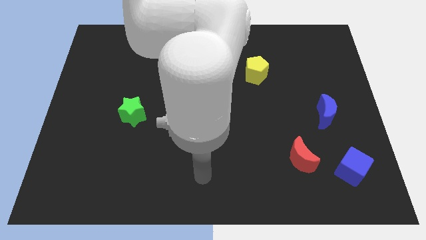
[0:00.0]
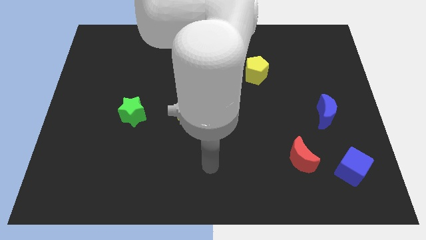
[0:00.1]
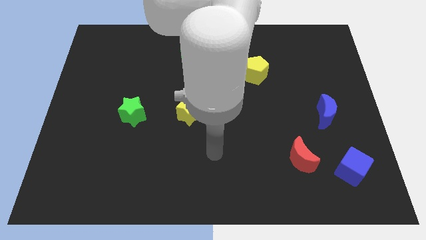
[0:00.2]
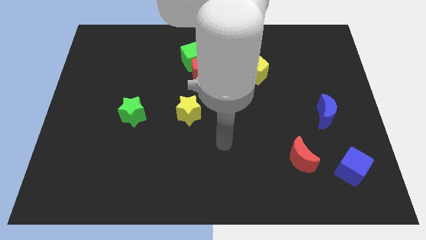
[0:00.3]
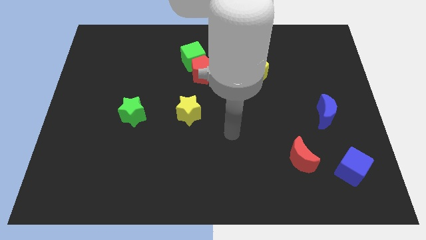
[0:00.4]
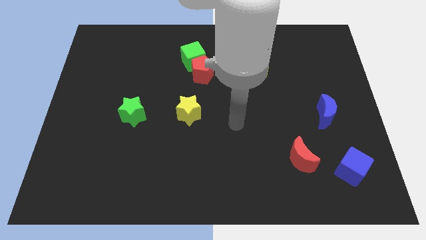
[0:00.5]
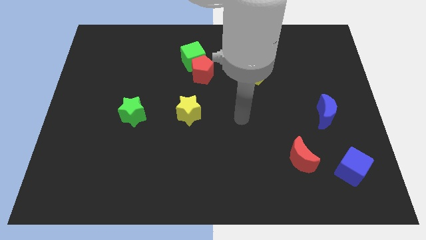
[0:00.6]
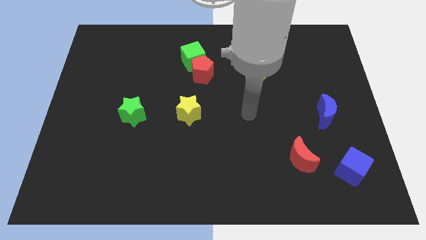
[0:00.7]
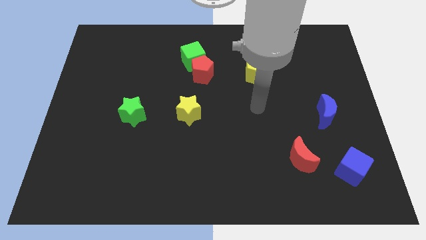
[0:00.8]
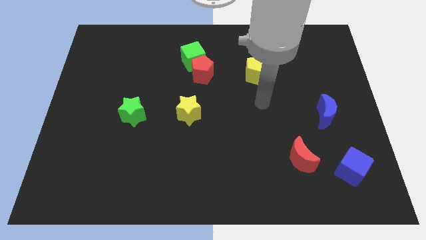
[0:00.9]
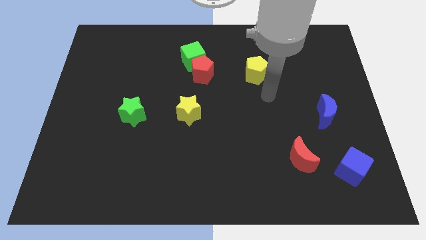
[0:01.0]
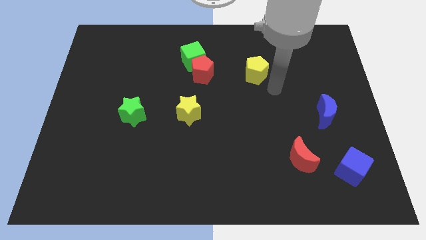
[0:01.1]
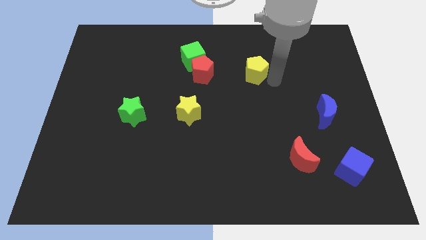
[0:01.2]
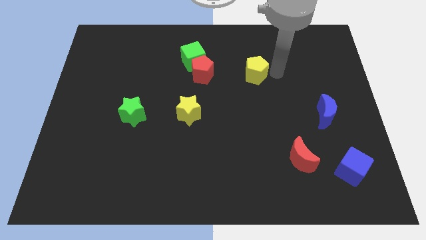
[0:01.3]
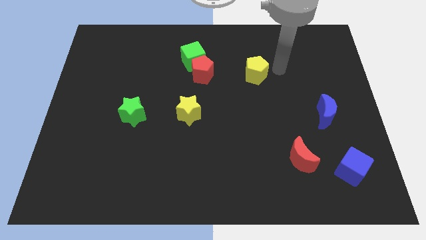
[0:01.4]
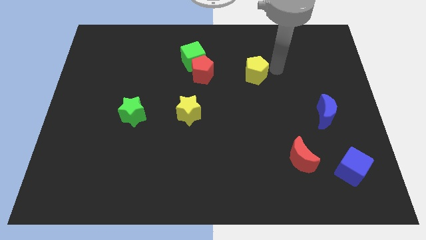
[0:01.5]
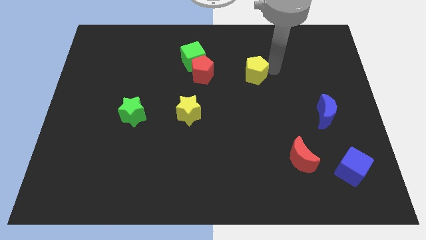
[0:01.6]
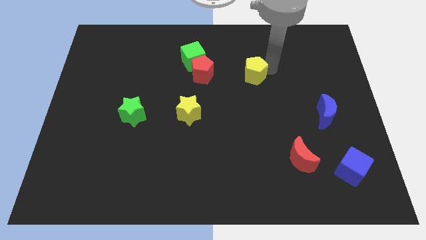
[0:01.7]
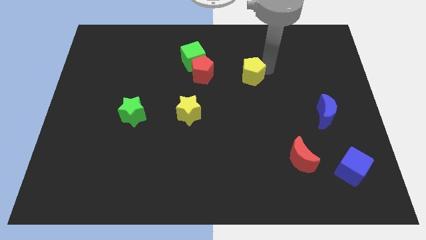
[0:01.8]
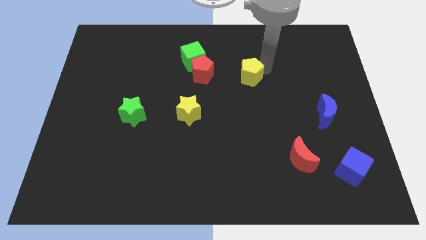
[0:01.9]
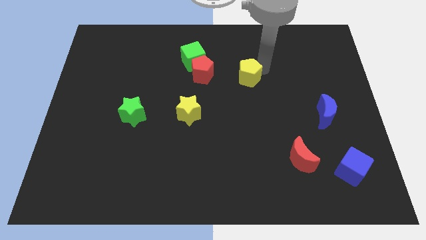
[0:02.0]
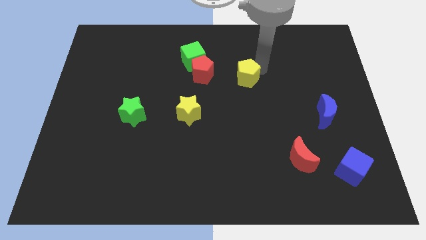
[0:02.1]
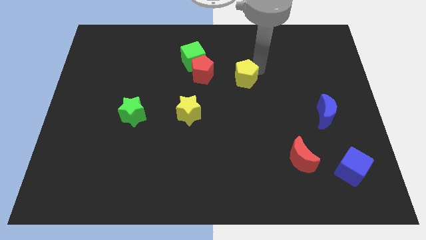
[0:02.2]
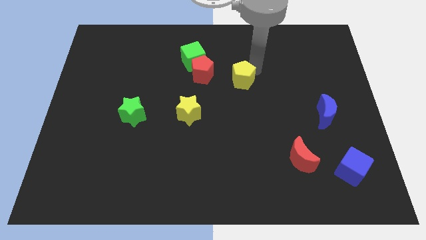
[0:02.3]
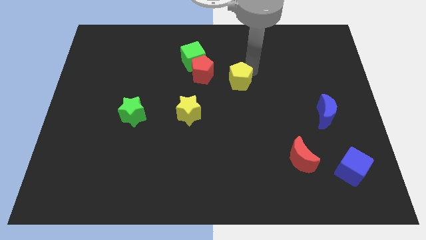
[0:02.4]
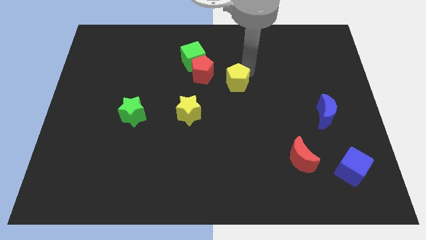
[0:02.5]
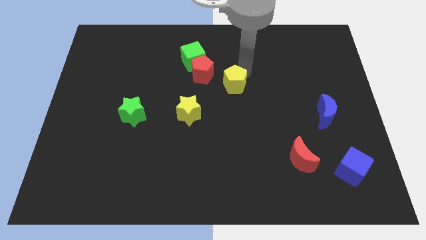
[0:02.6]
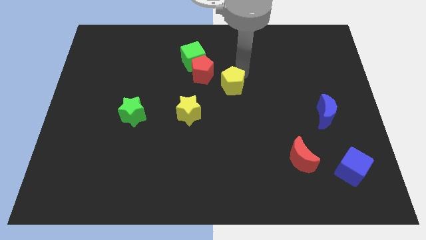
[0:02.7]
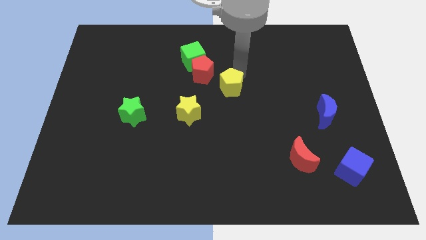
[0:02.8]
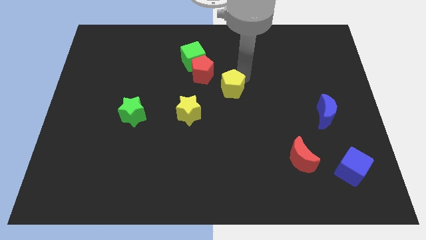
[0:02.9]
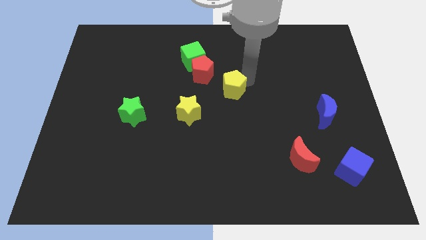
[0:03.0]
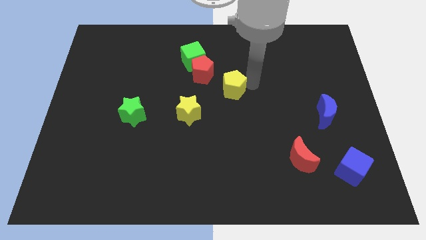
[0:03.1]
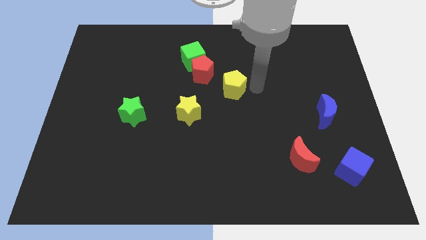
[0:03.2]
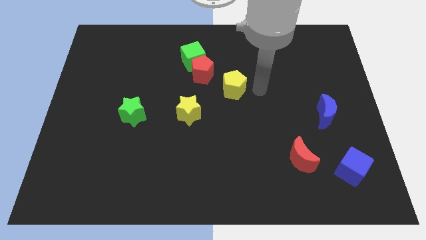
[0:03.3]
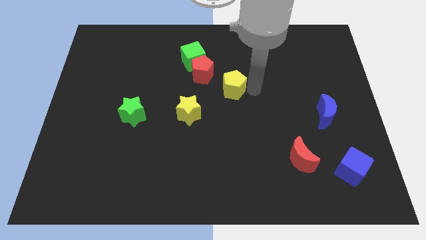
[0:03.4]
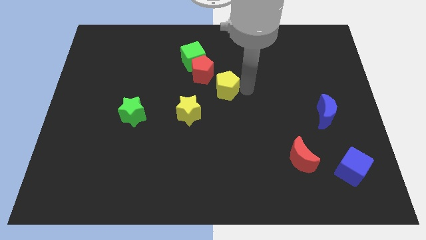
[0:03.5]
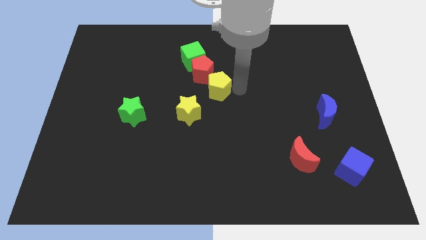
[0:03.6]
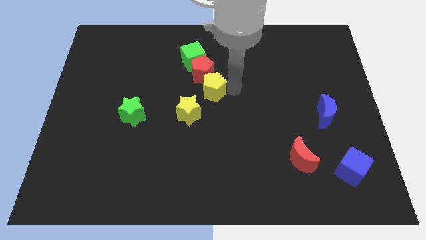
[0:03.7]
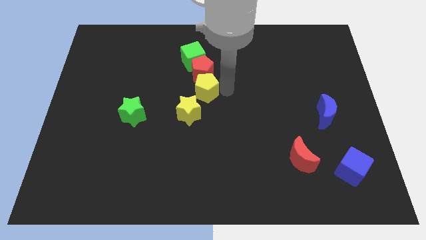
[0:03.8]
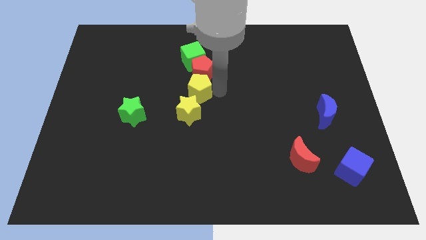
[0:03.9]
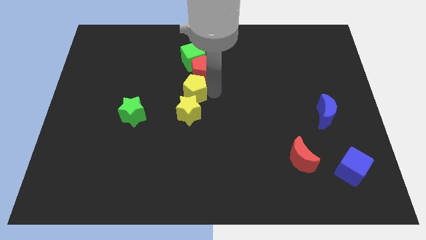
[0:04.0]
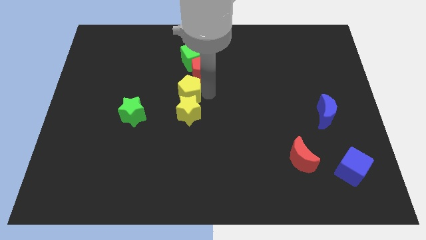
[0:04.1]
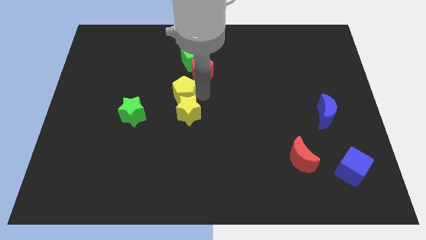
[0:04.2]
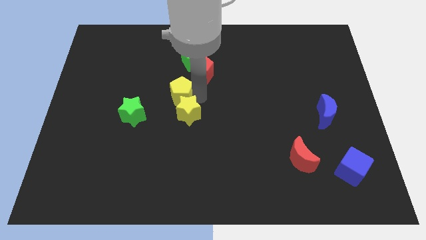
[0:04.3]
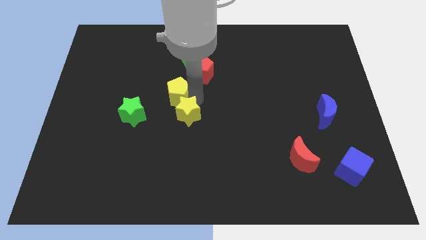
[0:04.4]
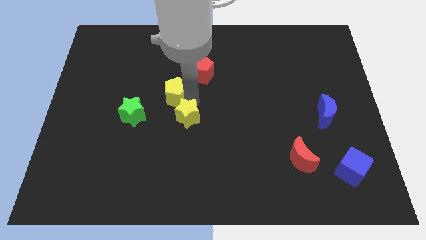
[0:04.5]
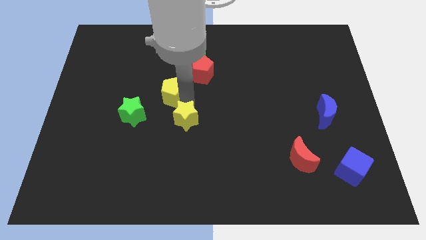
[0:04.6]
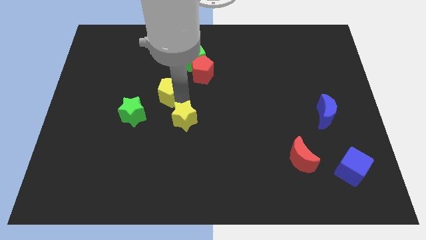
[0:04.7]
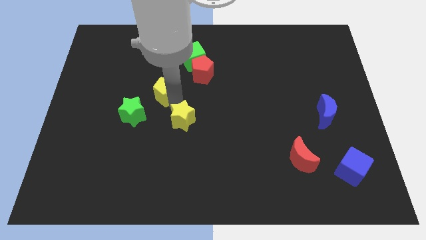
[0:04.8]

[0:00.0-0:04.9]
slide the yellow pentagon left

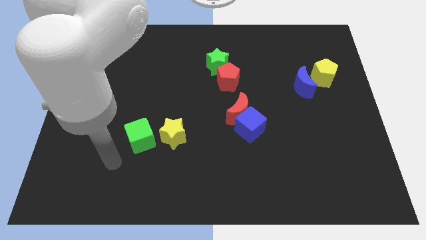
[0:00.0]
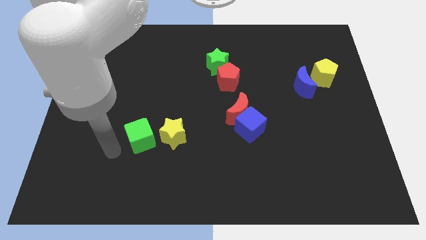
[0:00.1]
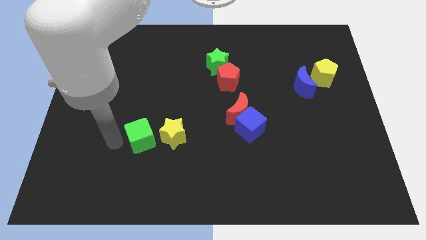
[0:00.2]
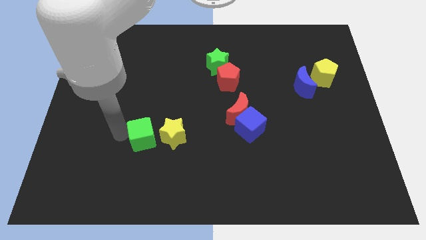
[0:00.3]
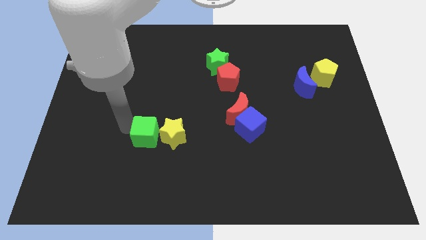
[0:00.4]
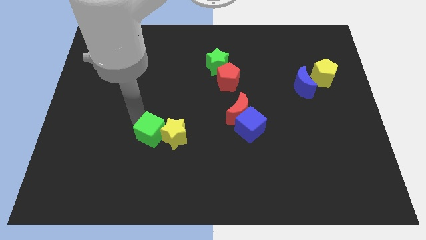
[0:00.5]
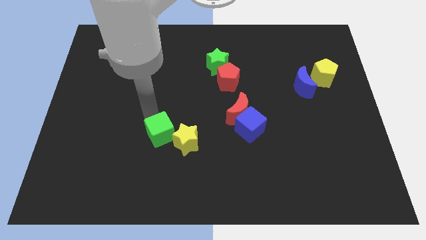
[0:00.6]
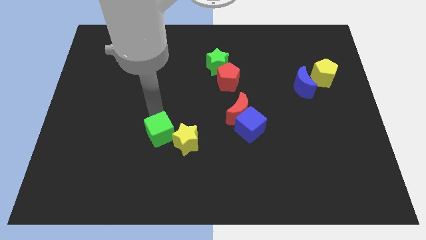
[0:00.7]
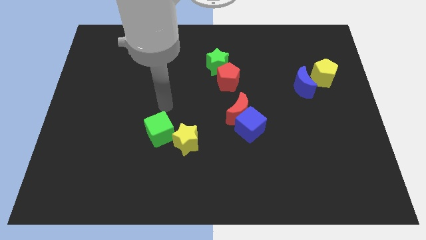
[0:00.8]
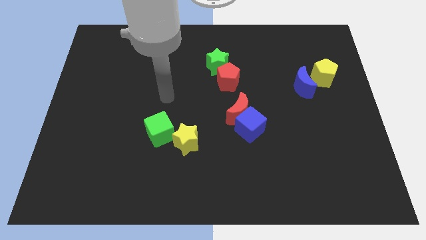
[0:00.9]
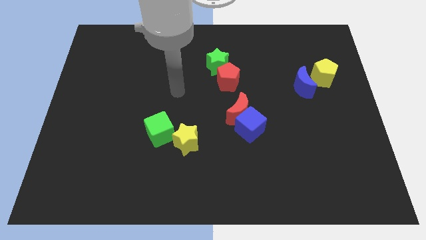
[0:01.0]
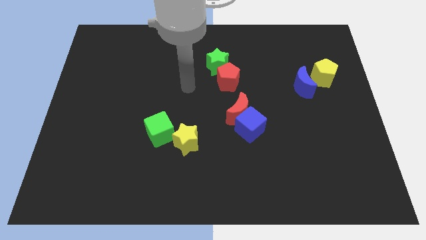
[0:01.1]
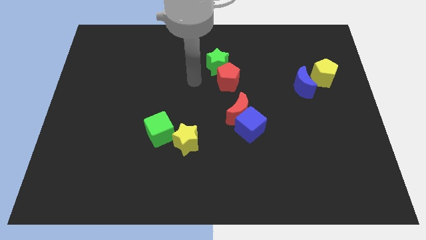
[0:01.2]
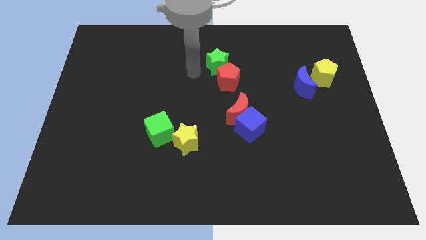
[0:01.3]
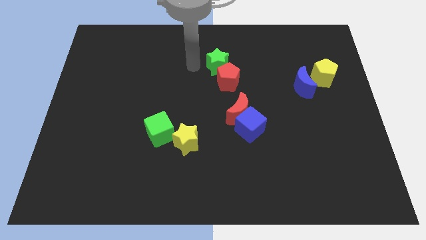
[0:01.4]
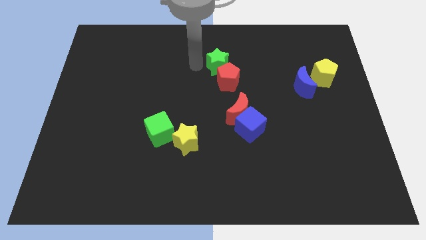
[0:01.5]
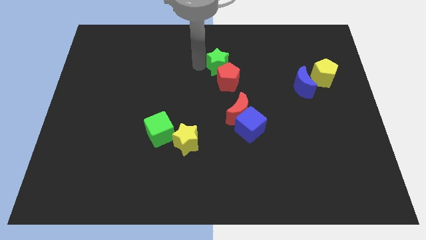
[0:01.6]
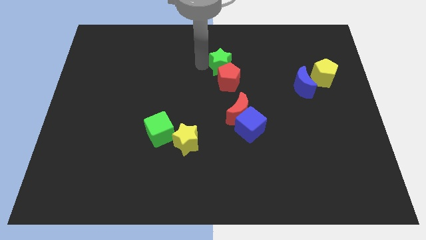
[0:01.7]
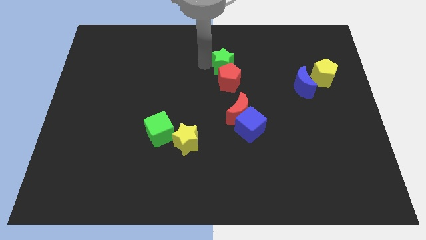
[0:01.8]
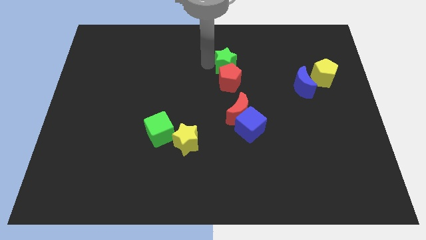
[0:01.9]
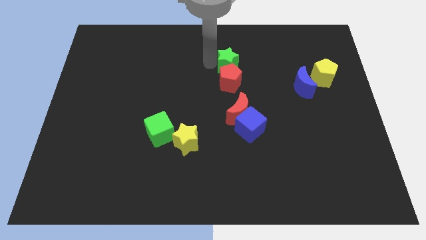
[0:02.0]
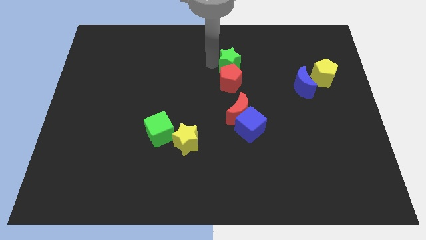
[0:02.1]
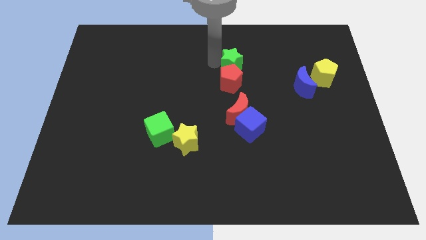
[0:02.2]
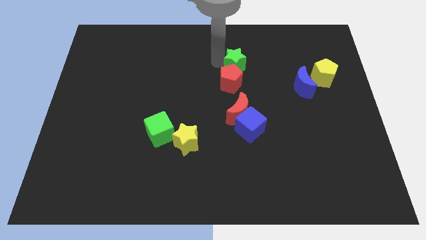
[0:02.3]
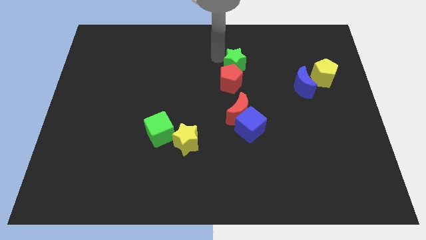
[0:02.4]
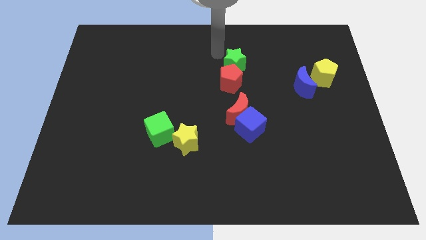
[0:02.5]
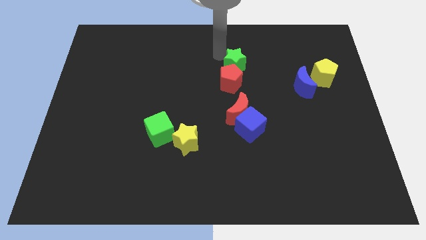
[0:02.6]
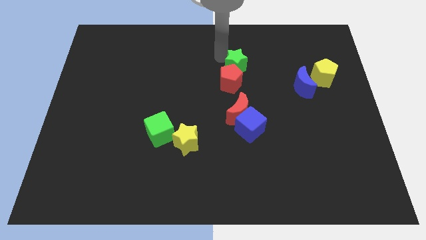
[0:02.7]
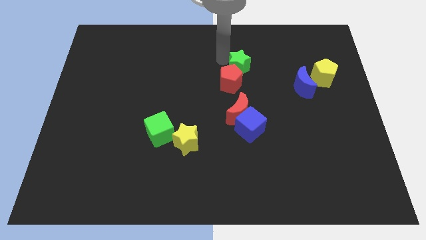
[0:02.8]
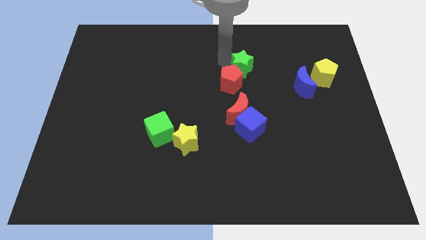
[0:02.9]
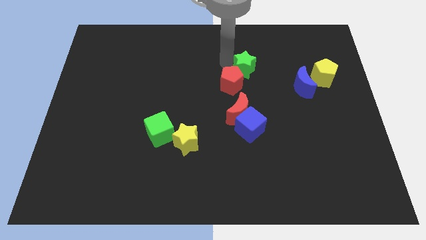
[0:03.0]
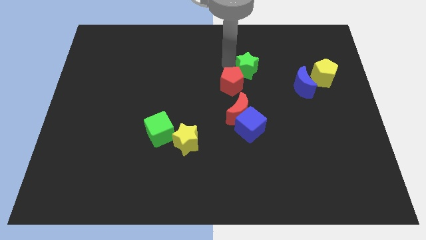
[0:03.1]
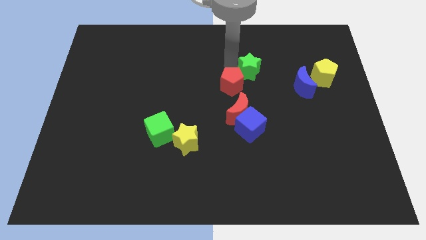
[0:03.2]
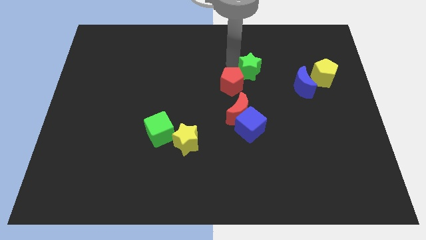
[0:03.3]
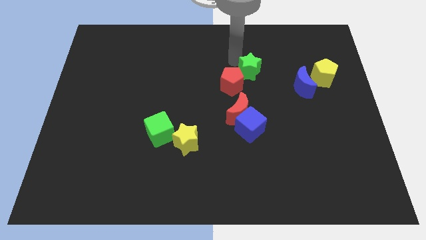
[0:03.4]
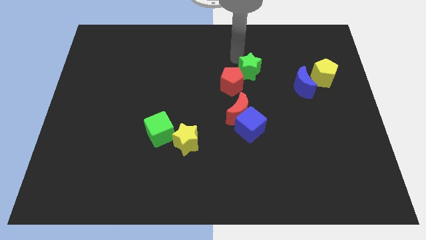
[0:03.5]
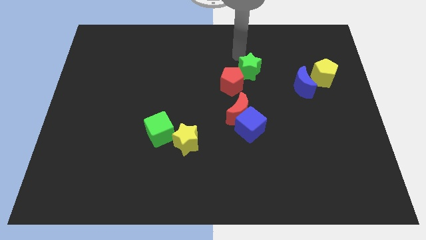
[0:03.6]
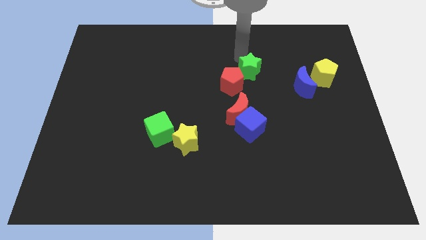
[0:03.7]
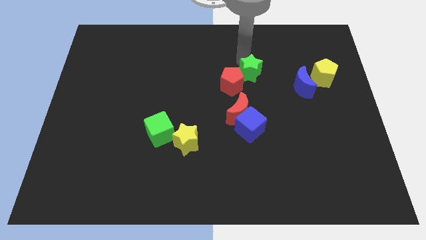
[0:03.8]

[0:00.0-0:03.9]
move the green star a bit downwards and to the right
